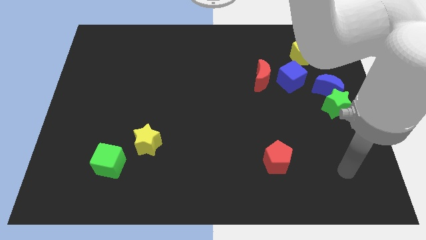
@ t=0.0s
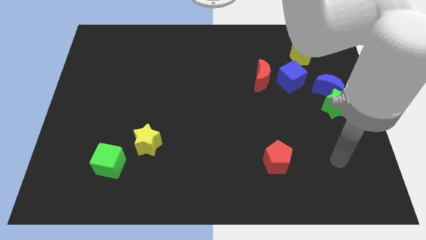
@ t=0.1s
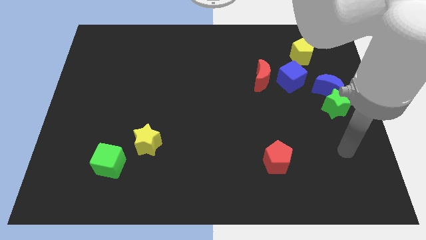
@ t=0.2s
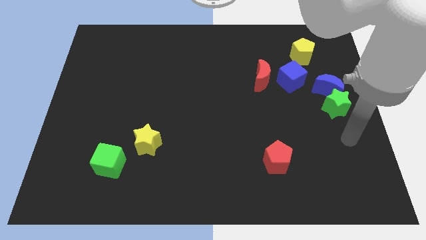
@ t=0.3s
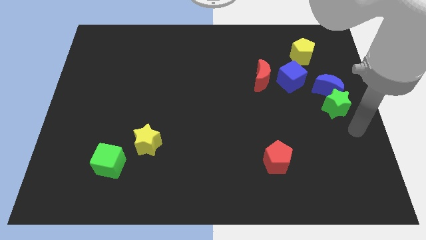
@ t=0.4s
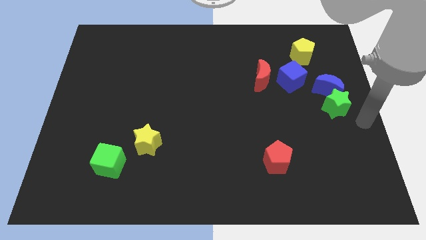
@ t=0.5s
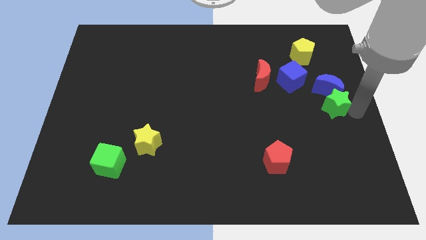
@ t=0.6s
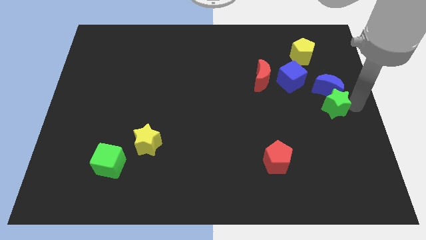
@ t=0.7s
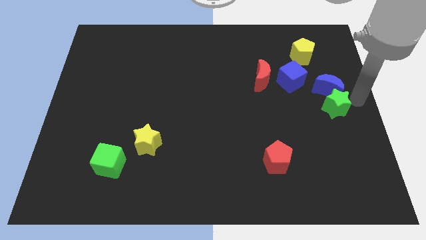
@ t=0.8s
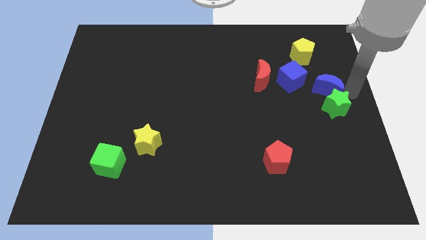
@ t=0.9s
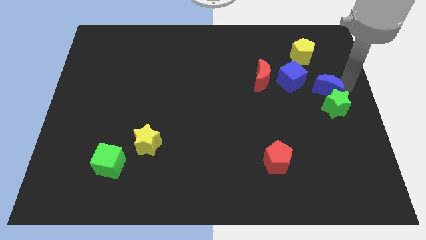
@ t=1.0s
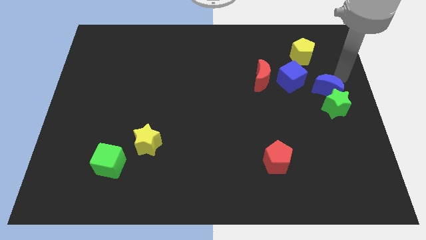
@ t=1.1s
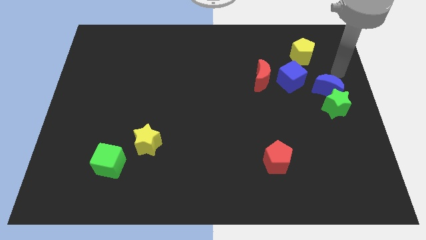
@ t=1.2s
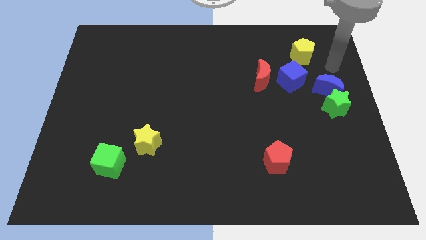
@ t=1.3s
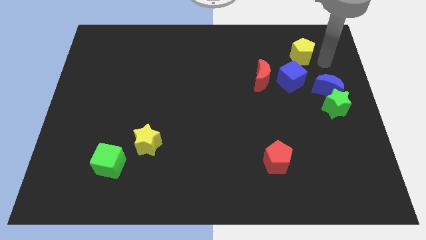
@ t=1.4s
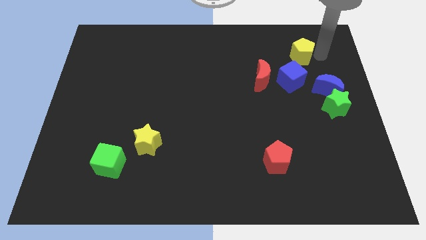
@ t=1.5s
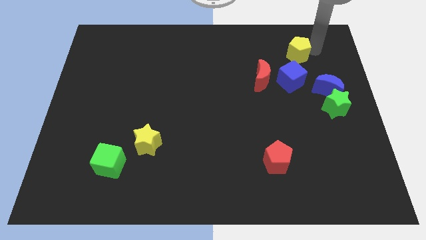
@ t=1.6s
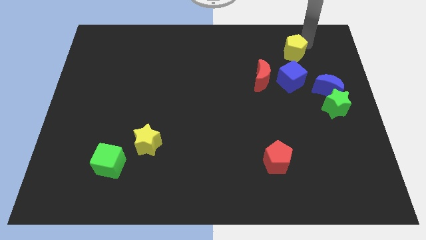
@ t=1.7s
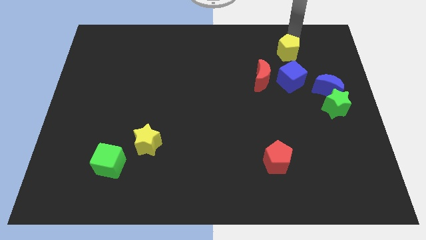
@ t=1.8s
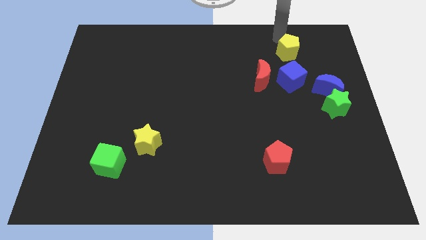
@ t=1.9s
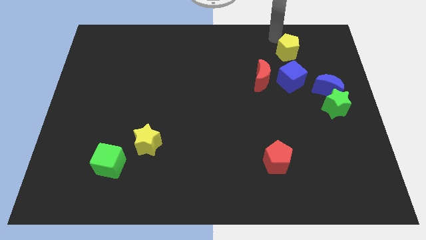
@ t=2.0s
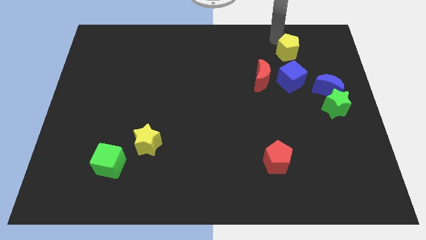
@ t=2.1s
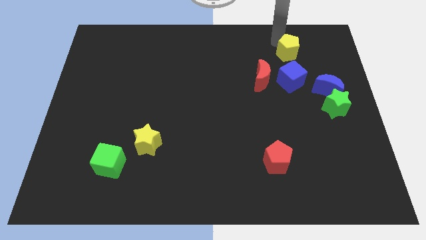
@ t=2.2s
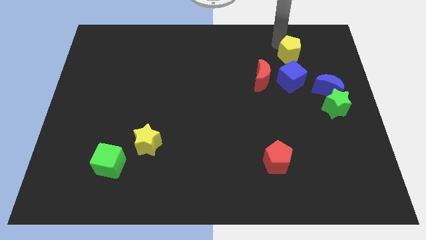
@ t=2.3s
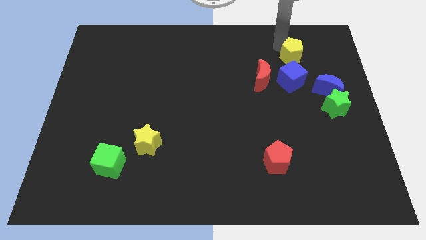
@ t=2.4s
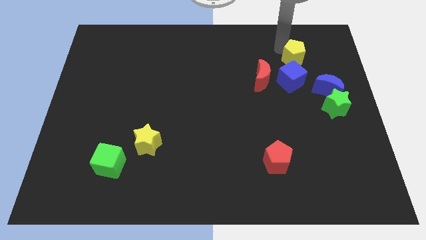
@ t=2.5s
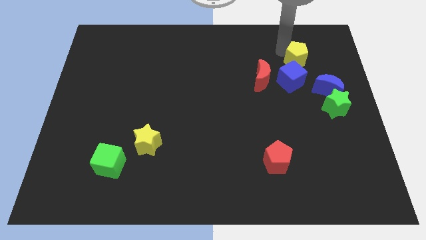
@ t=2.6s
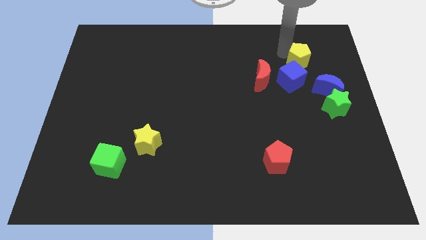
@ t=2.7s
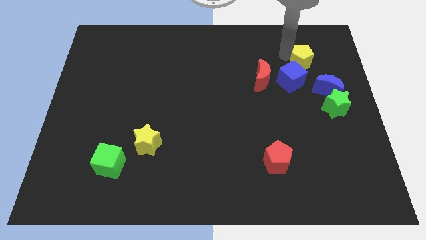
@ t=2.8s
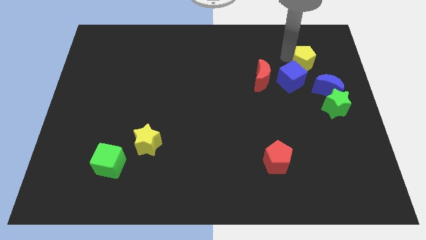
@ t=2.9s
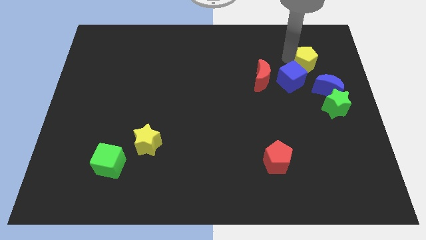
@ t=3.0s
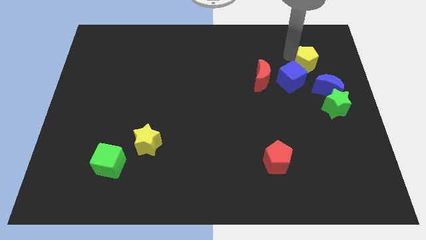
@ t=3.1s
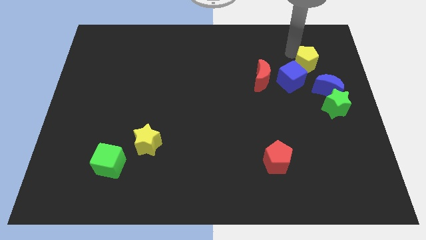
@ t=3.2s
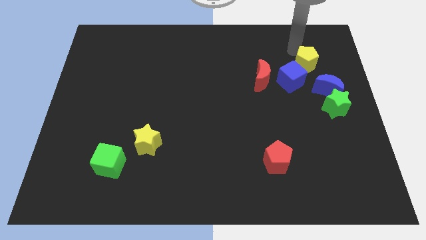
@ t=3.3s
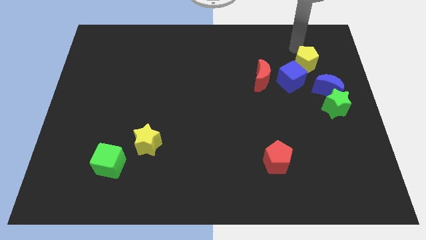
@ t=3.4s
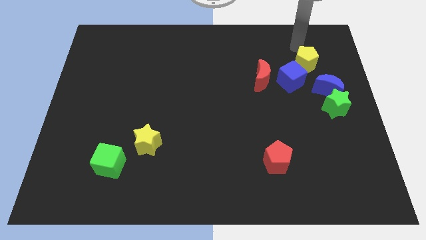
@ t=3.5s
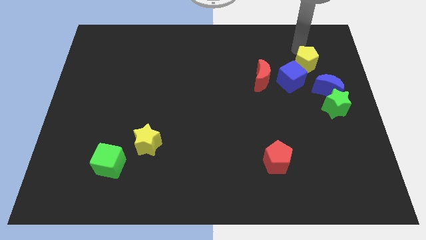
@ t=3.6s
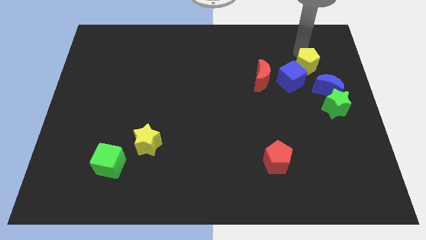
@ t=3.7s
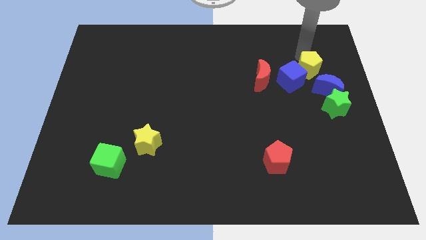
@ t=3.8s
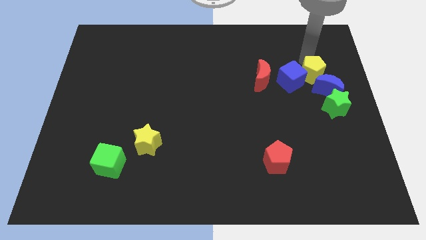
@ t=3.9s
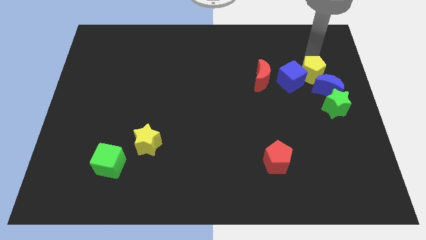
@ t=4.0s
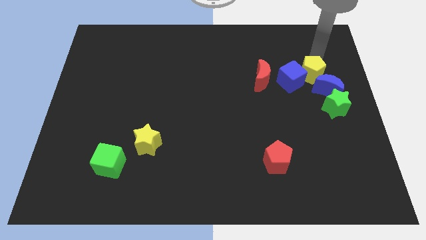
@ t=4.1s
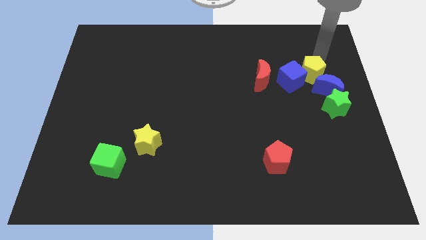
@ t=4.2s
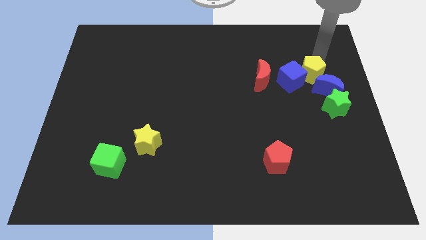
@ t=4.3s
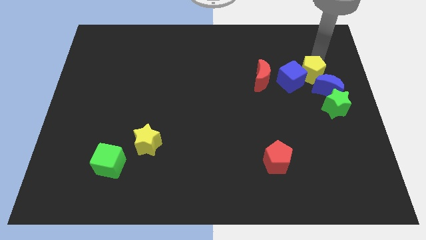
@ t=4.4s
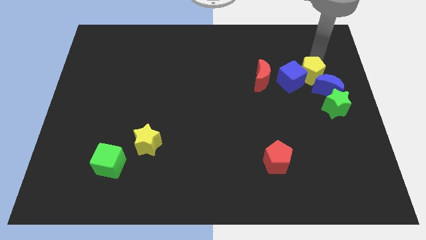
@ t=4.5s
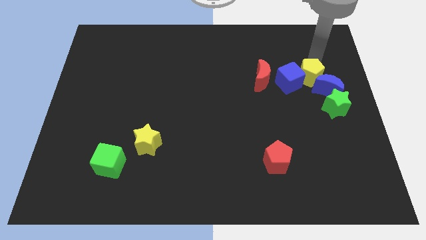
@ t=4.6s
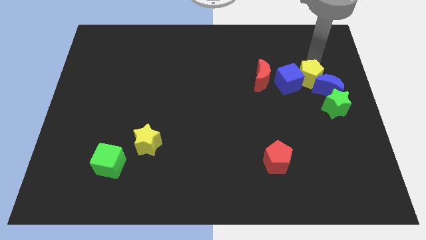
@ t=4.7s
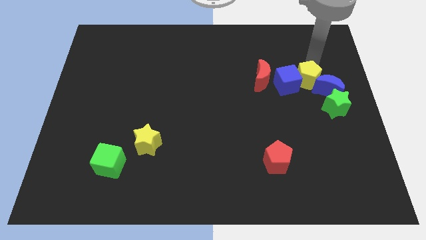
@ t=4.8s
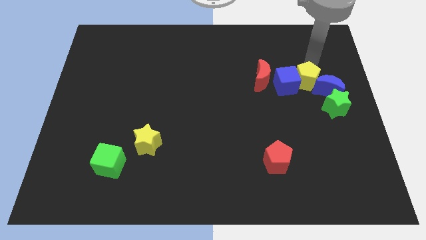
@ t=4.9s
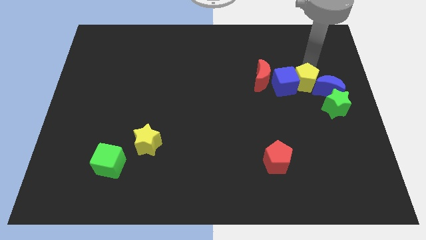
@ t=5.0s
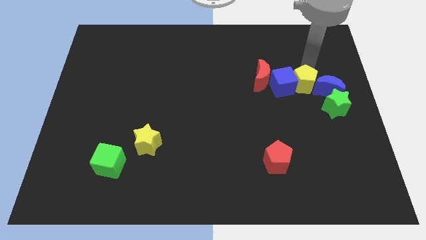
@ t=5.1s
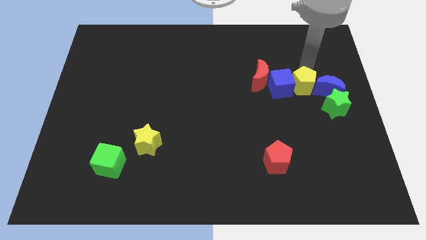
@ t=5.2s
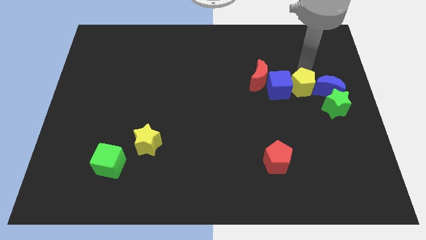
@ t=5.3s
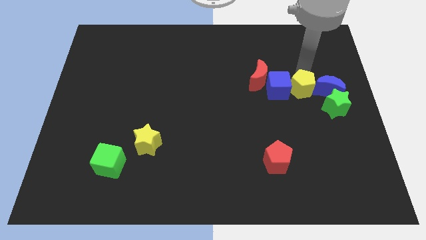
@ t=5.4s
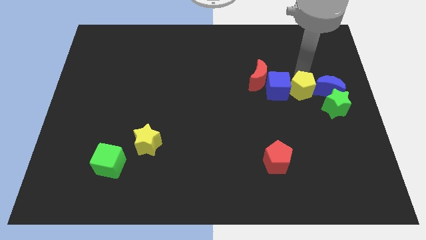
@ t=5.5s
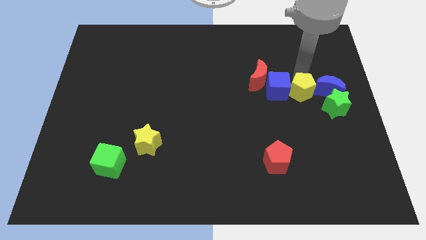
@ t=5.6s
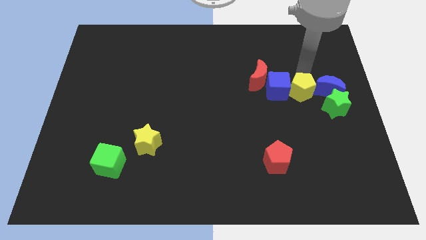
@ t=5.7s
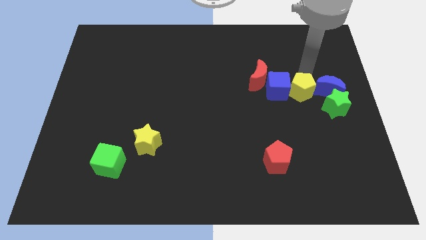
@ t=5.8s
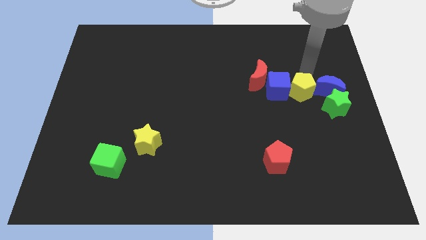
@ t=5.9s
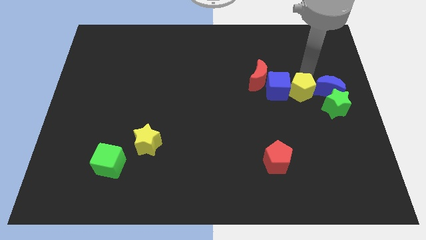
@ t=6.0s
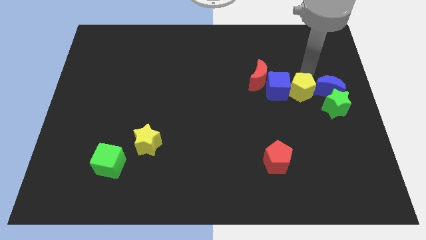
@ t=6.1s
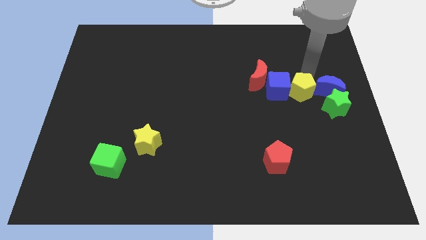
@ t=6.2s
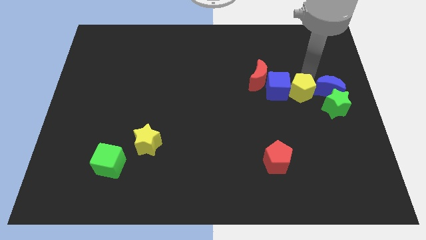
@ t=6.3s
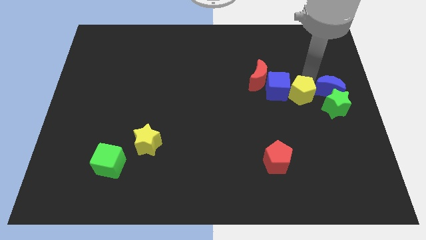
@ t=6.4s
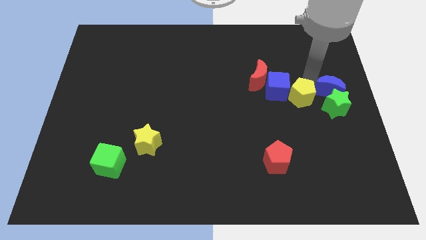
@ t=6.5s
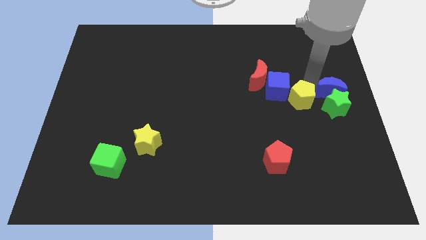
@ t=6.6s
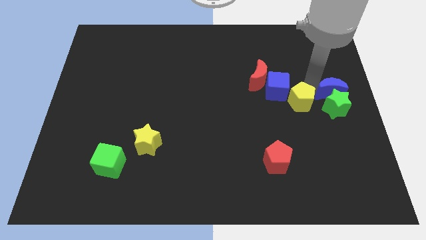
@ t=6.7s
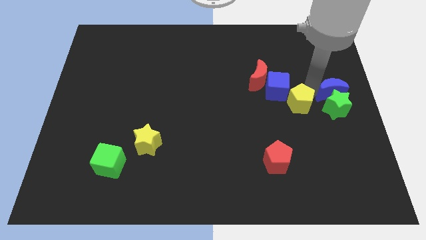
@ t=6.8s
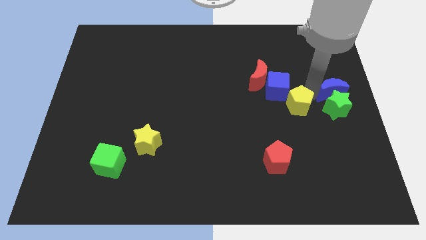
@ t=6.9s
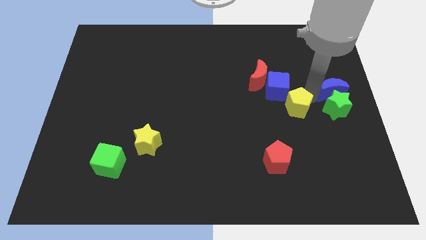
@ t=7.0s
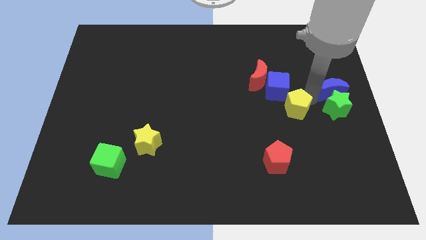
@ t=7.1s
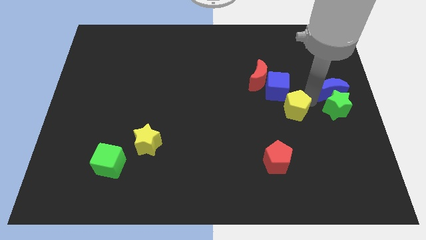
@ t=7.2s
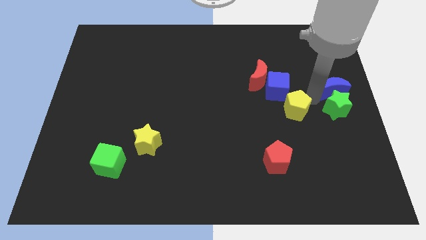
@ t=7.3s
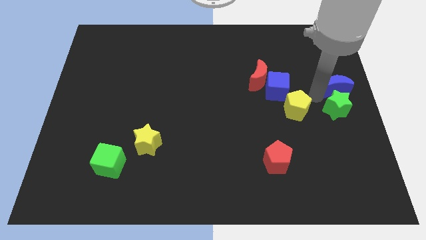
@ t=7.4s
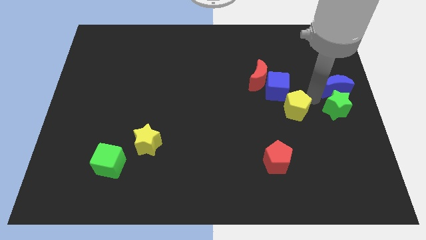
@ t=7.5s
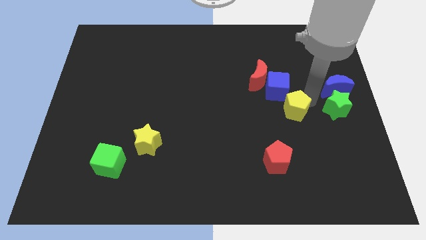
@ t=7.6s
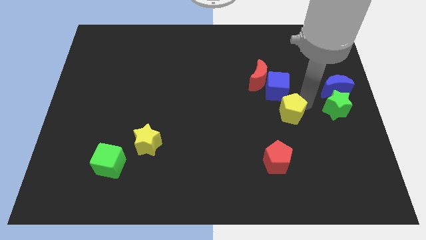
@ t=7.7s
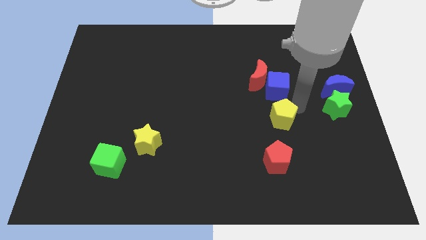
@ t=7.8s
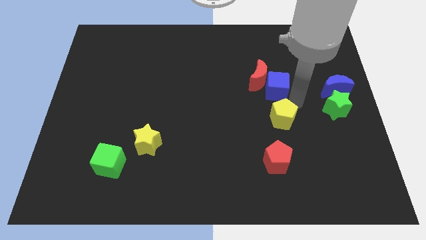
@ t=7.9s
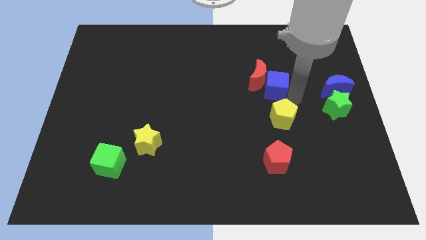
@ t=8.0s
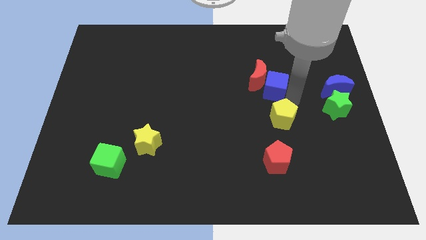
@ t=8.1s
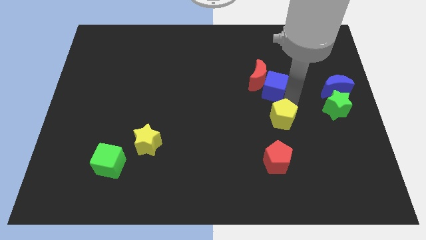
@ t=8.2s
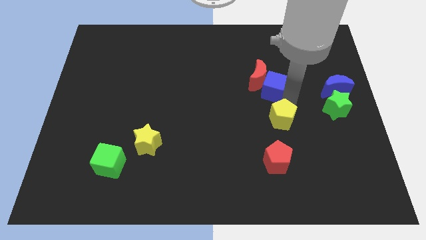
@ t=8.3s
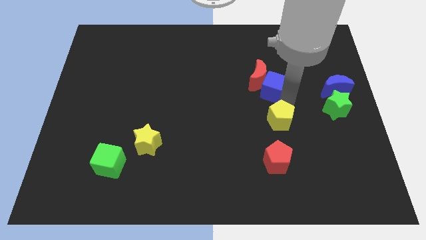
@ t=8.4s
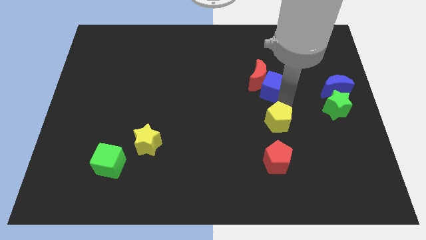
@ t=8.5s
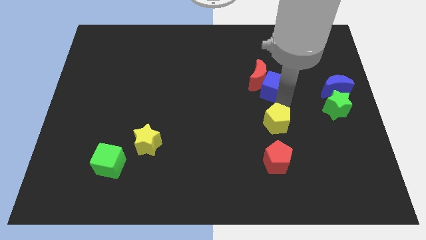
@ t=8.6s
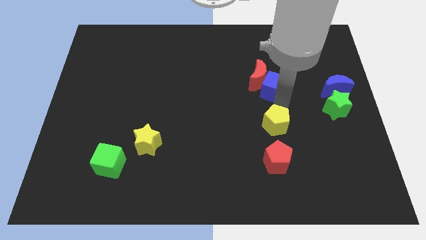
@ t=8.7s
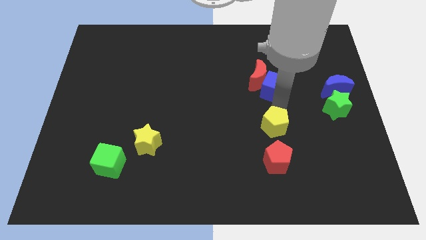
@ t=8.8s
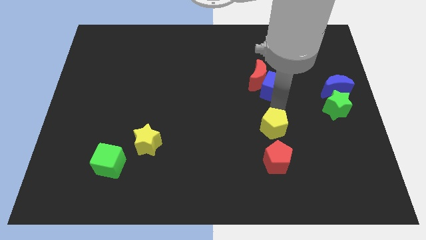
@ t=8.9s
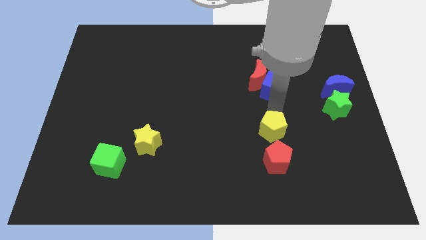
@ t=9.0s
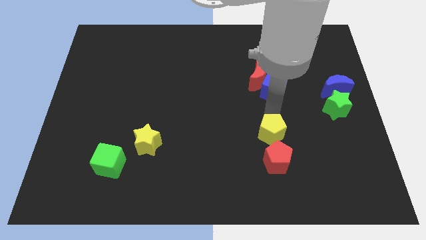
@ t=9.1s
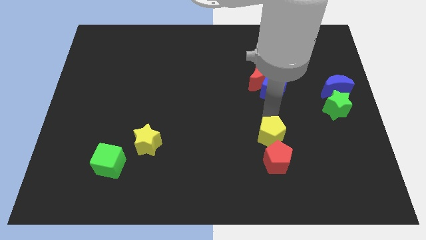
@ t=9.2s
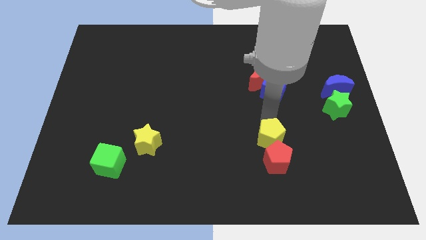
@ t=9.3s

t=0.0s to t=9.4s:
move the yellow pentagon to the red pentagon
